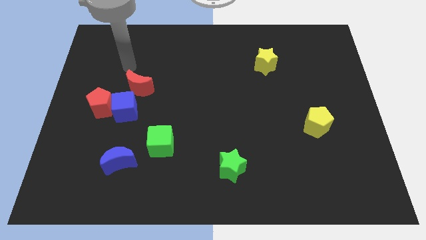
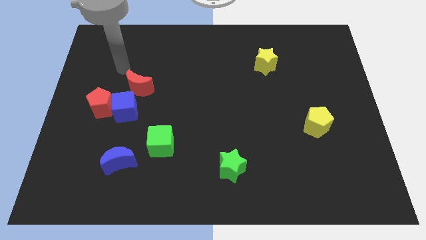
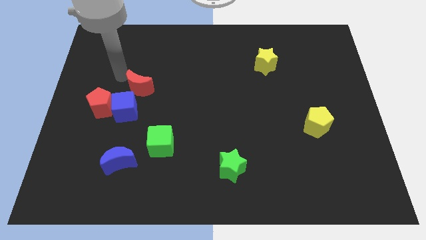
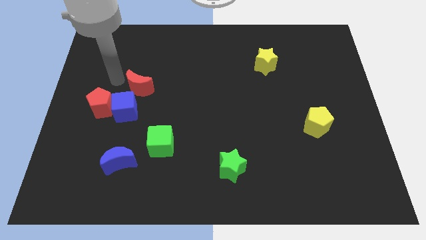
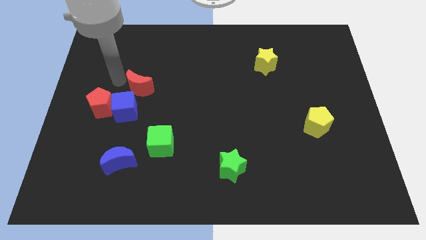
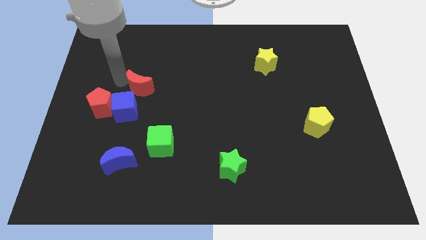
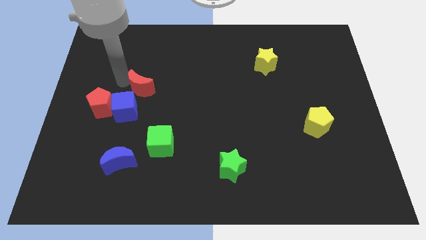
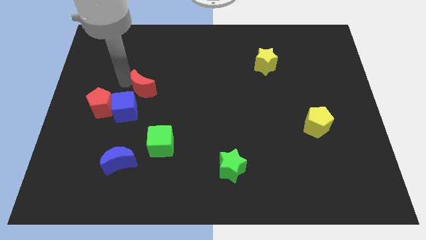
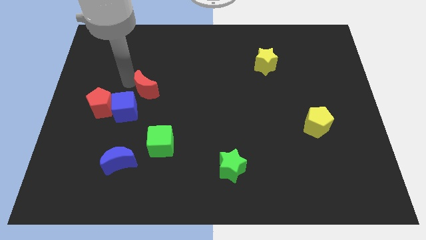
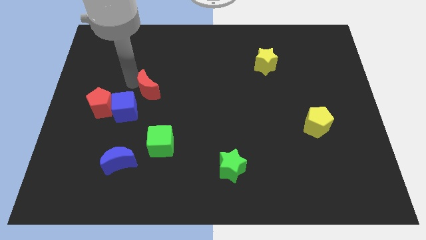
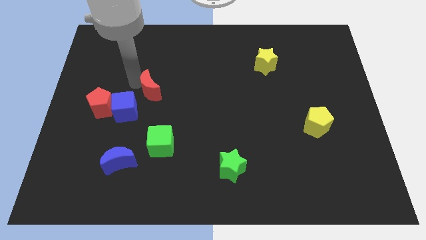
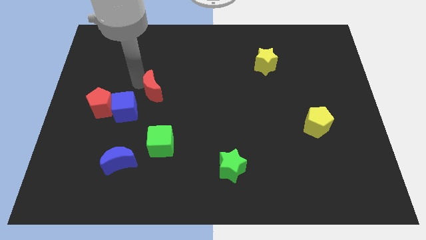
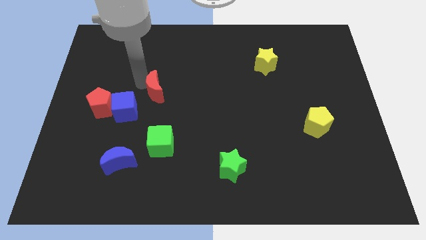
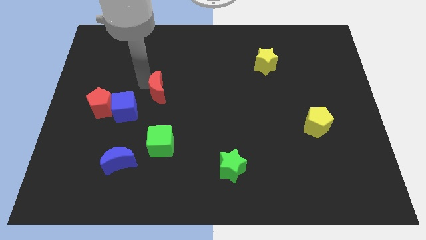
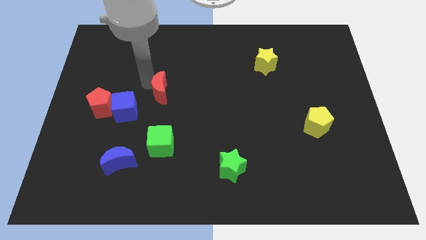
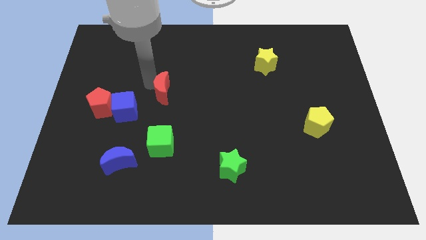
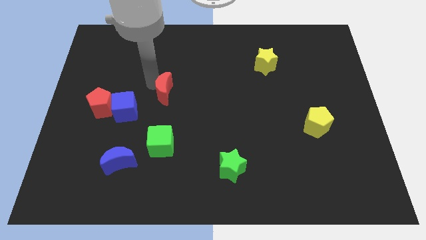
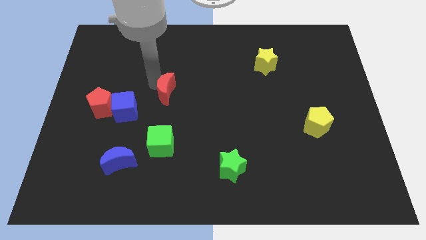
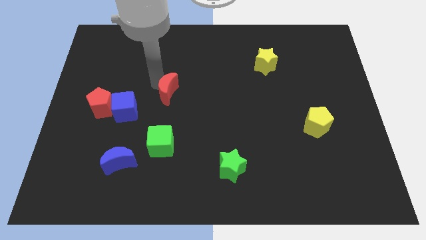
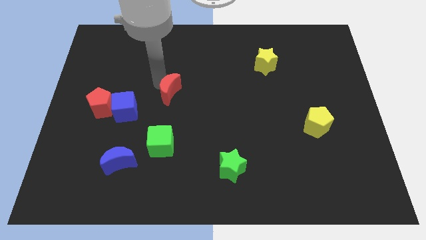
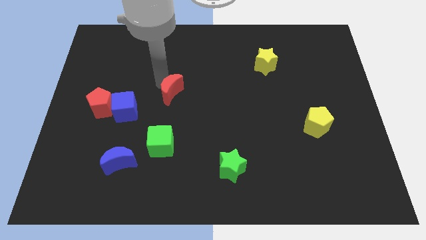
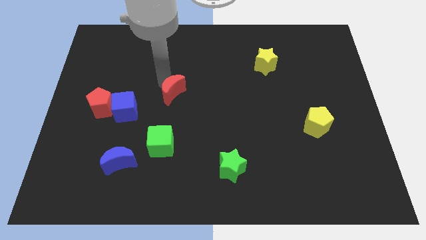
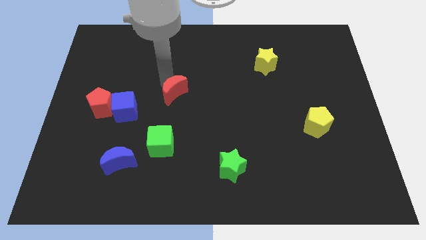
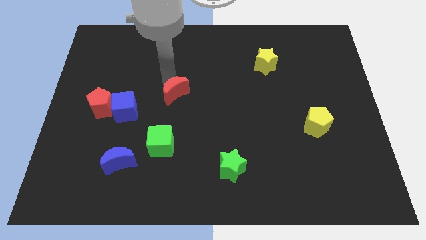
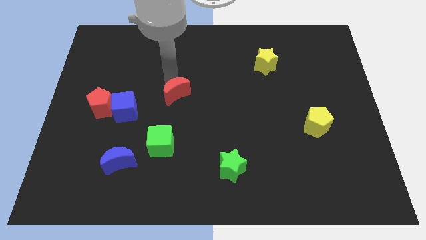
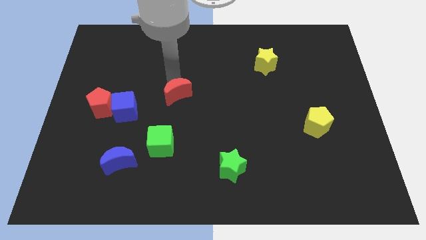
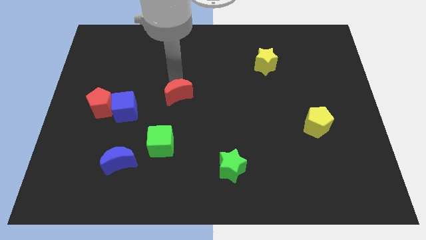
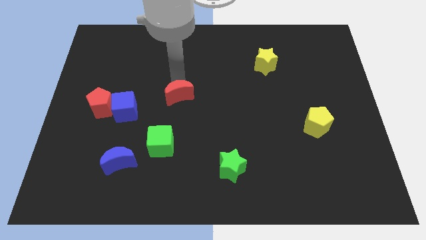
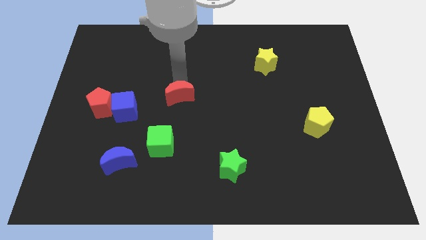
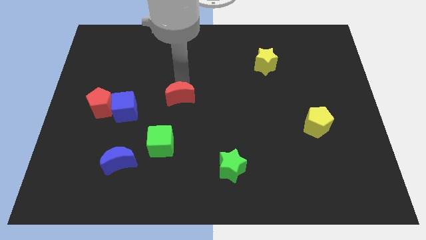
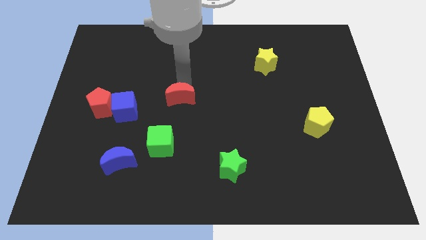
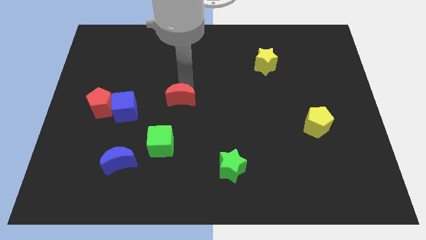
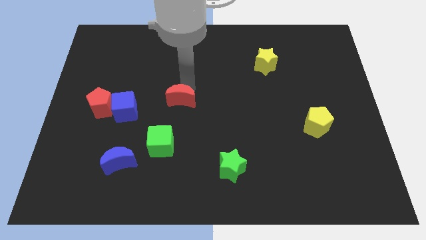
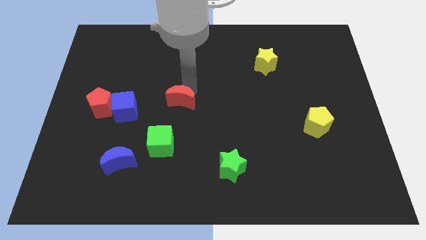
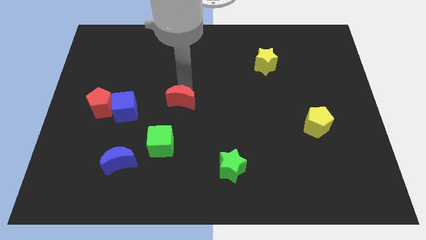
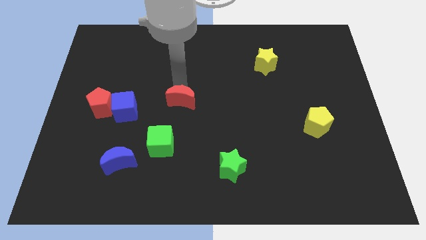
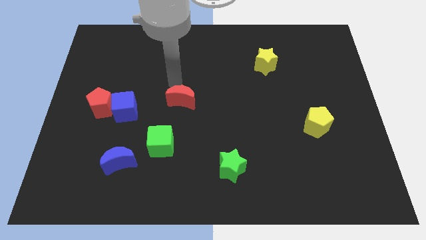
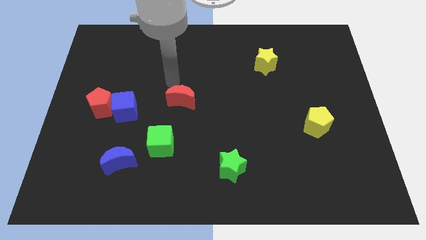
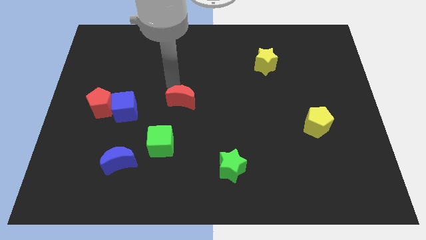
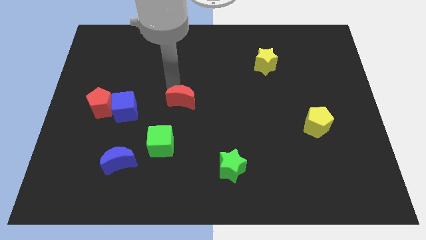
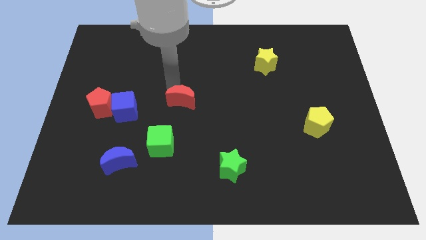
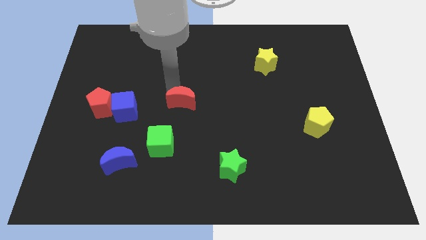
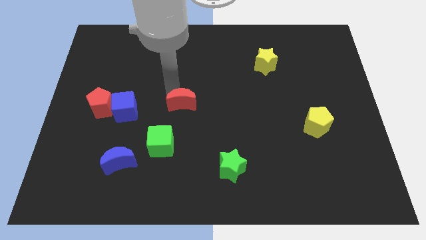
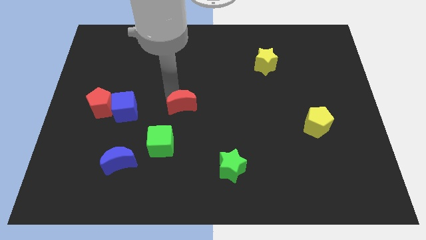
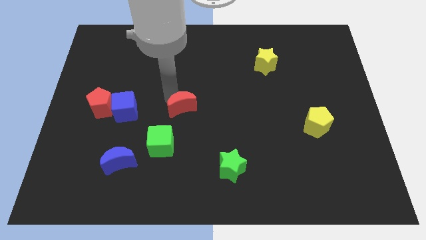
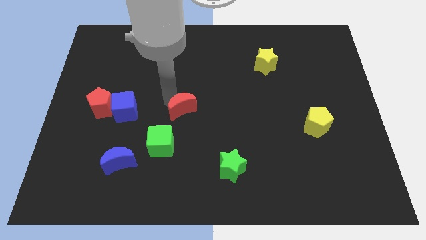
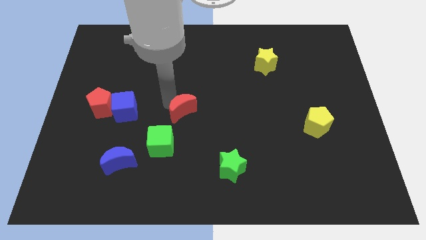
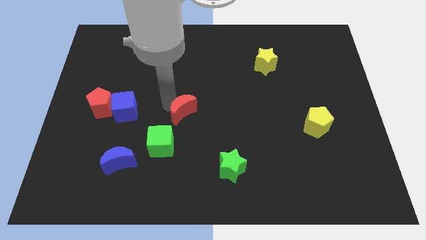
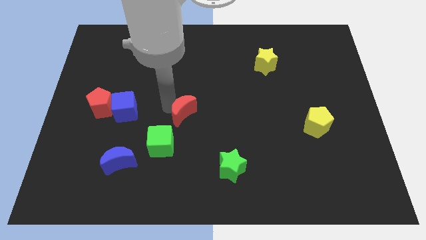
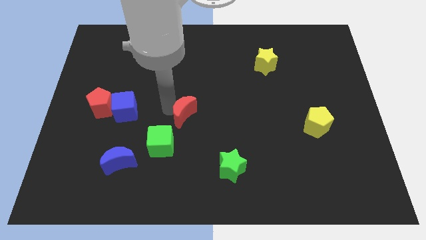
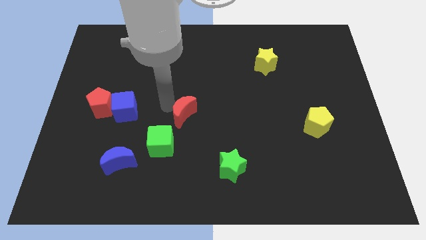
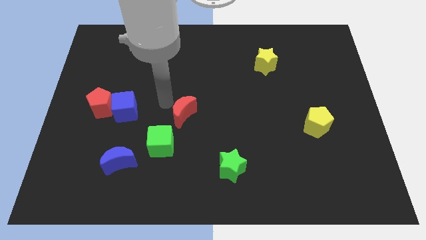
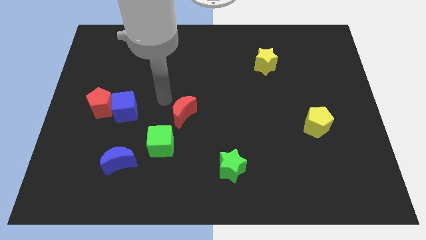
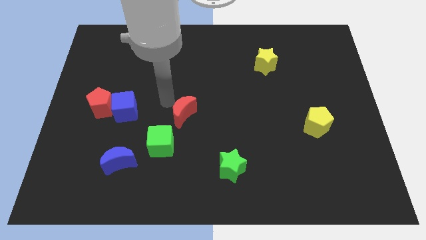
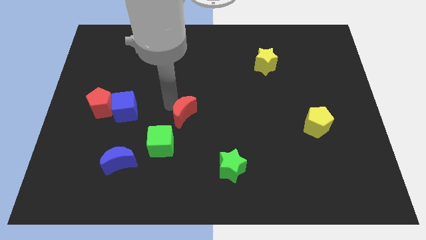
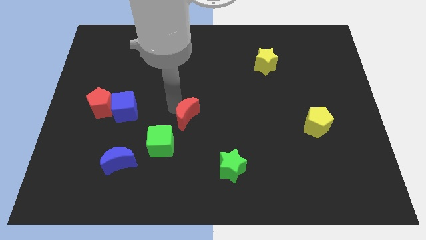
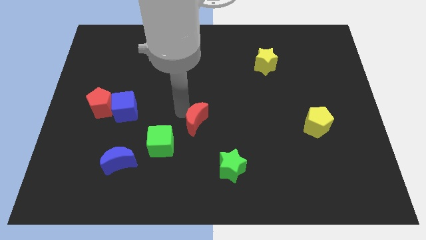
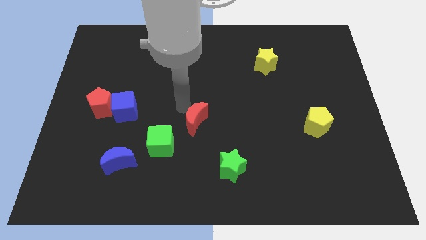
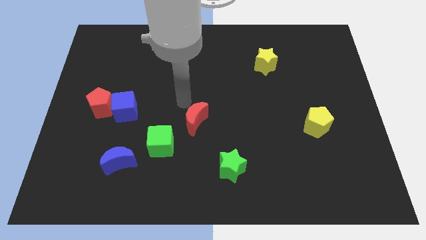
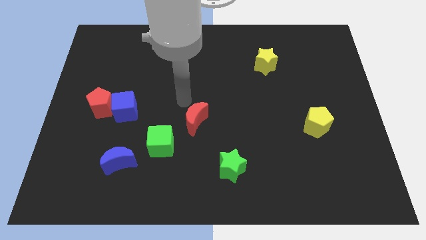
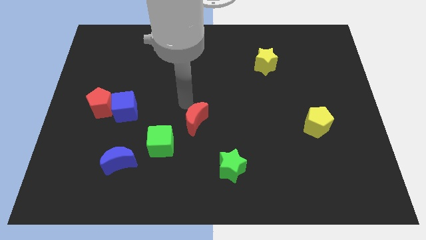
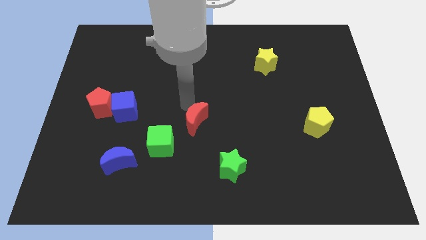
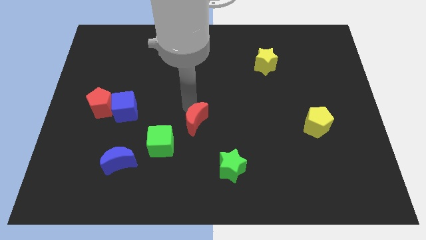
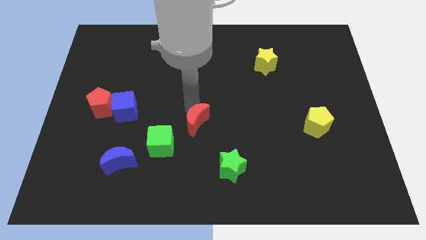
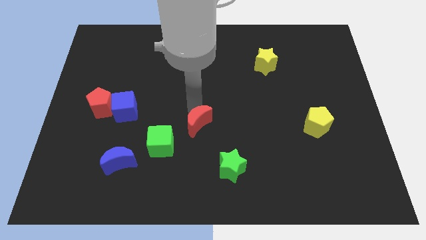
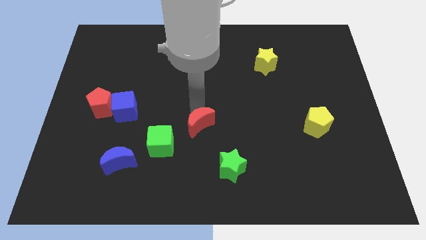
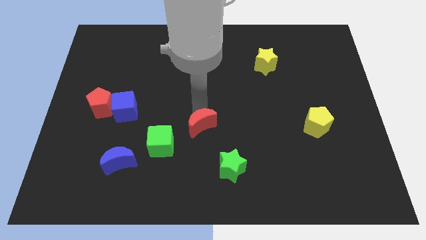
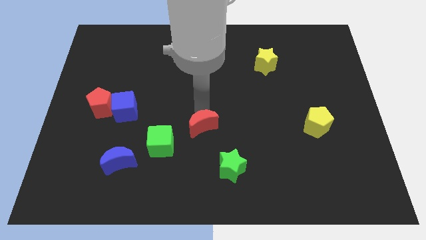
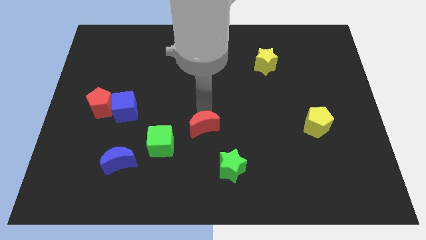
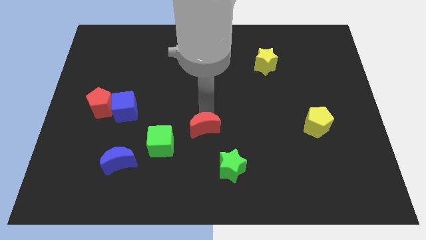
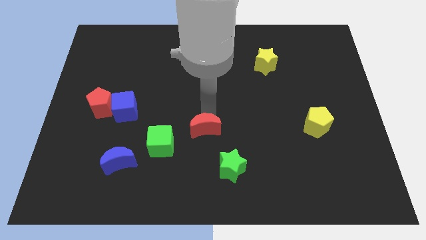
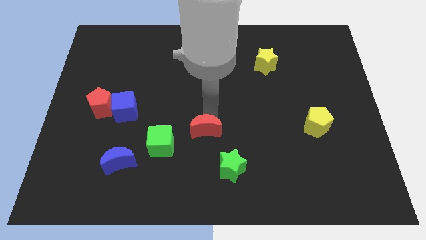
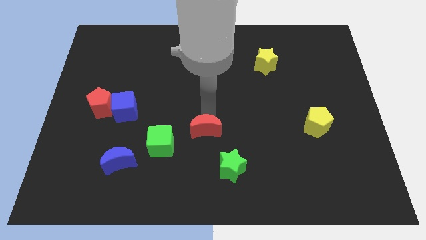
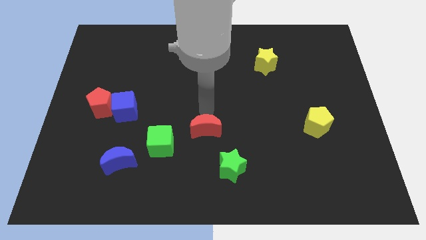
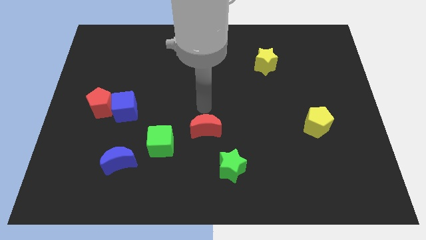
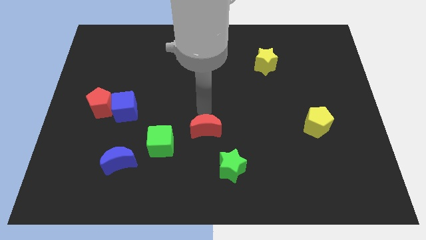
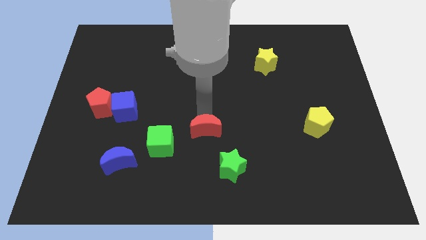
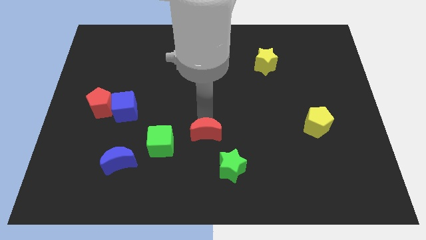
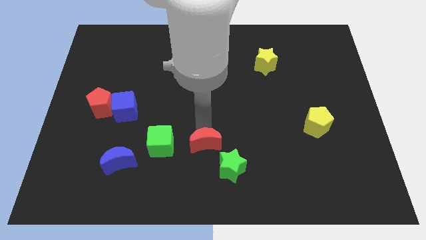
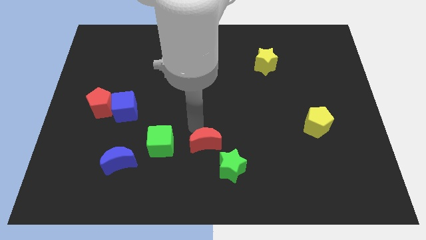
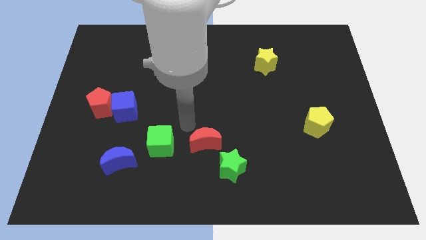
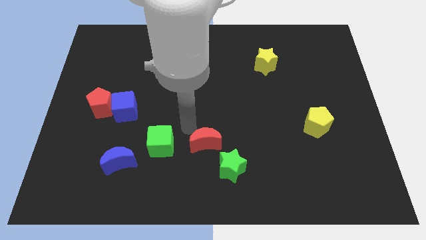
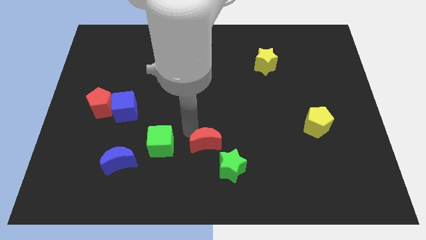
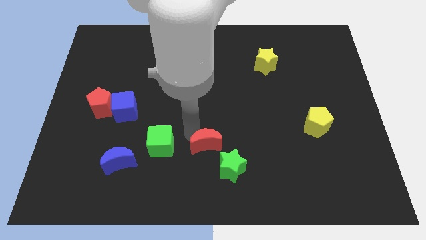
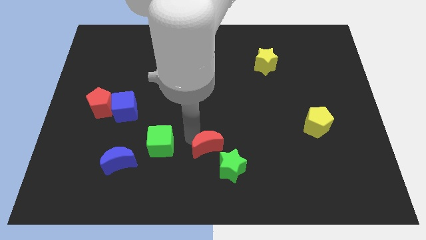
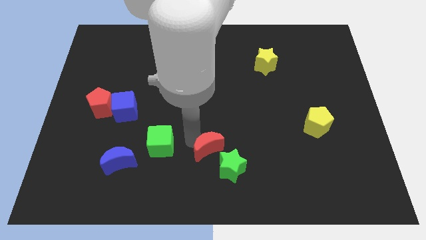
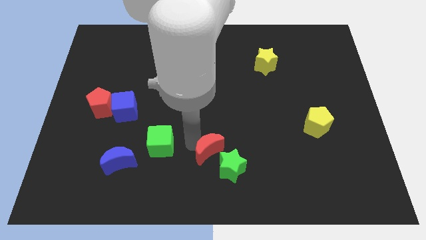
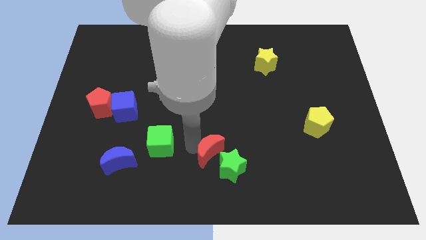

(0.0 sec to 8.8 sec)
push the red moon next to the green star
